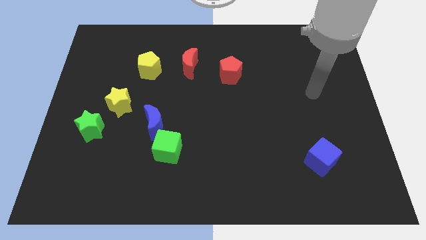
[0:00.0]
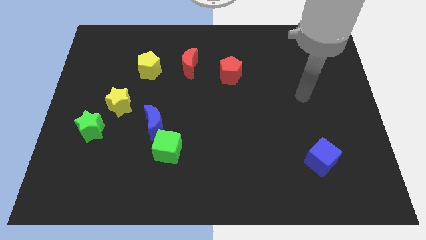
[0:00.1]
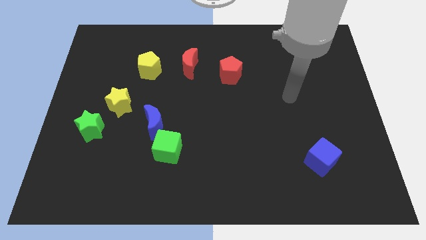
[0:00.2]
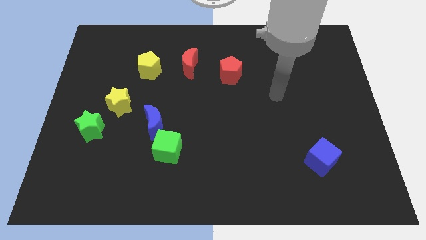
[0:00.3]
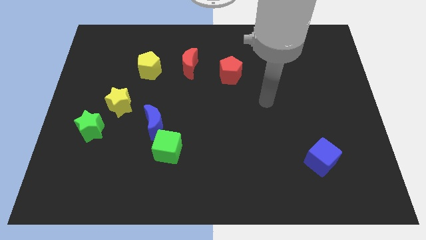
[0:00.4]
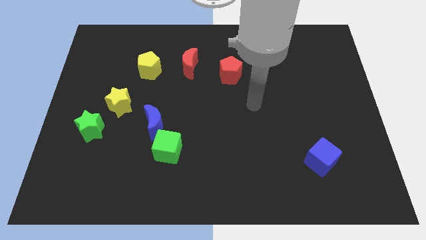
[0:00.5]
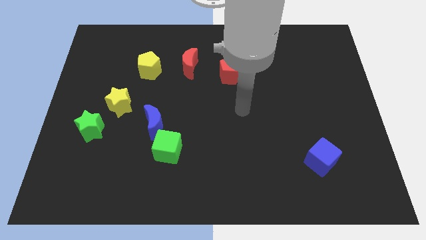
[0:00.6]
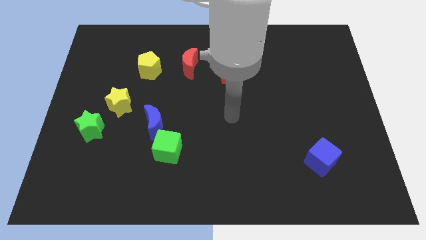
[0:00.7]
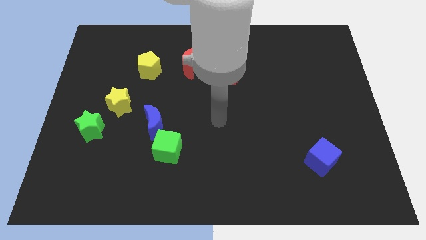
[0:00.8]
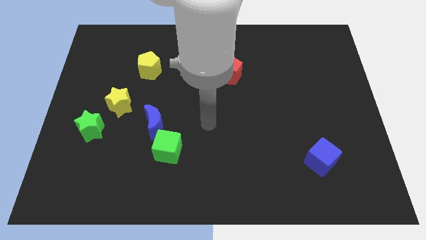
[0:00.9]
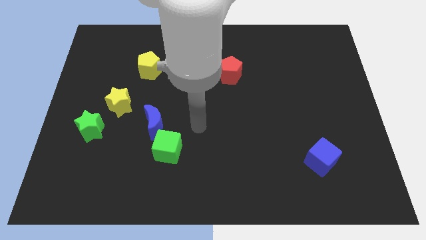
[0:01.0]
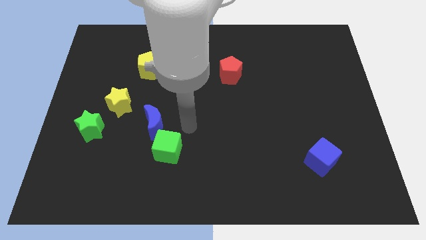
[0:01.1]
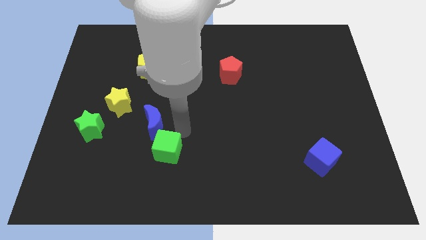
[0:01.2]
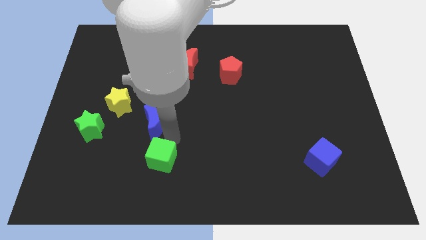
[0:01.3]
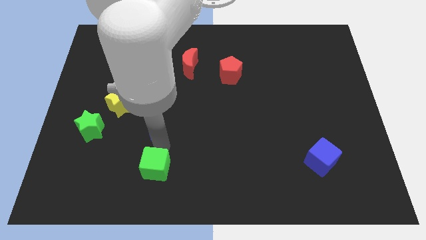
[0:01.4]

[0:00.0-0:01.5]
move the blue moon away from the green cube

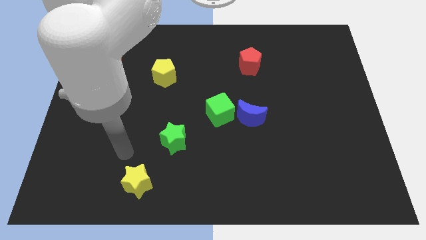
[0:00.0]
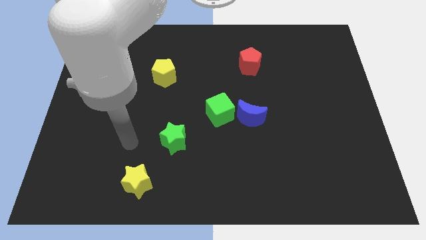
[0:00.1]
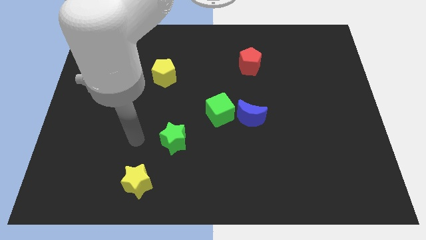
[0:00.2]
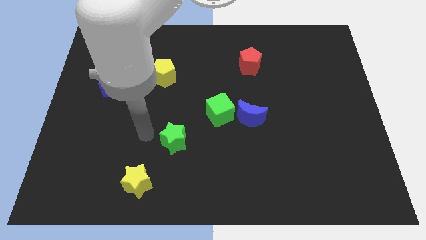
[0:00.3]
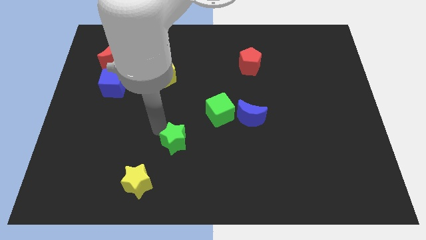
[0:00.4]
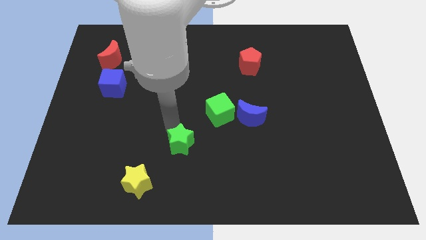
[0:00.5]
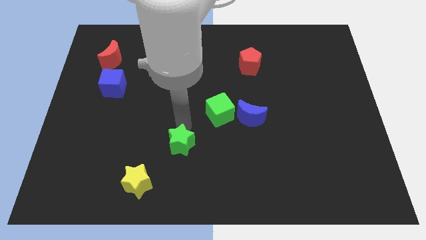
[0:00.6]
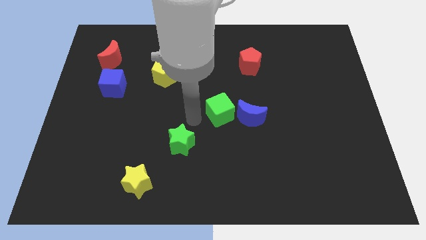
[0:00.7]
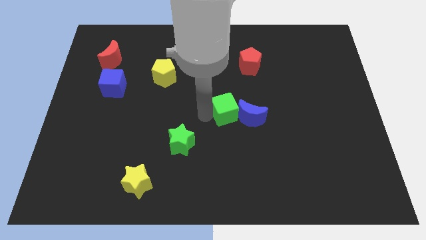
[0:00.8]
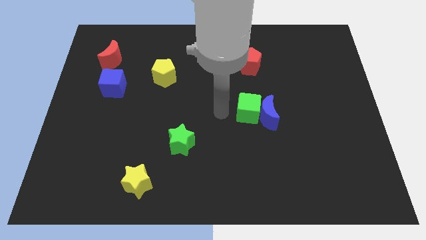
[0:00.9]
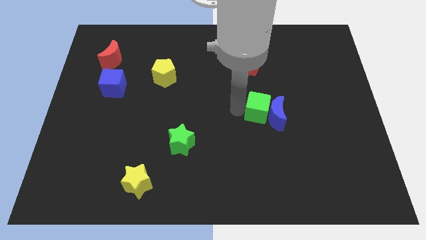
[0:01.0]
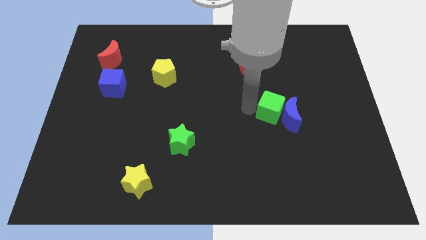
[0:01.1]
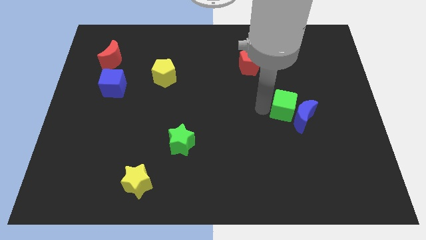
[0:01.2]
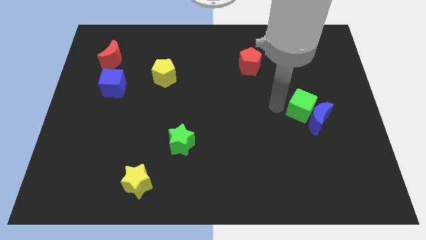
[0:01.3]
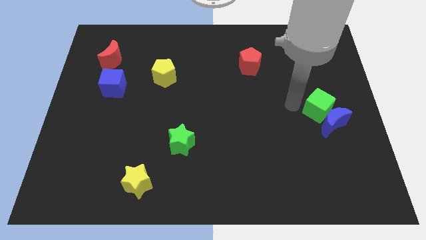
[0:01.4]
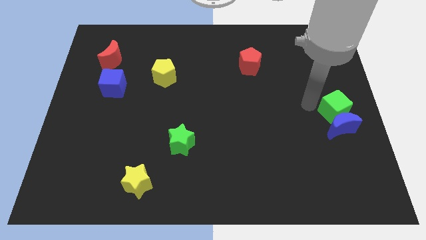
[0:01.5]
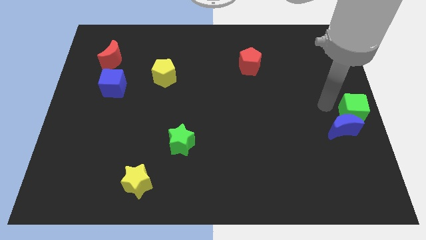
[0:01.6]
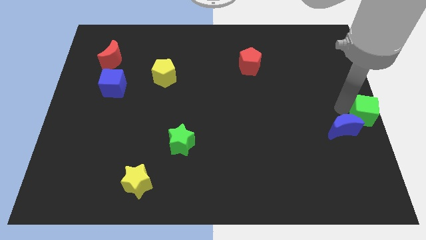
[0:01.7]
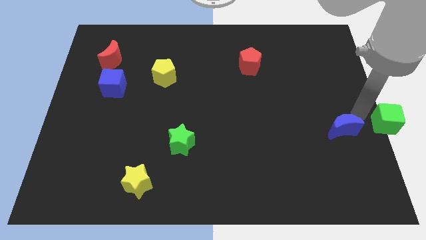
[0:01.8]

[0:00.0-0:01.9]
pull the blue moon apart from the green cube

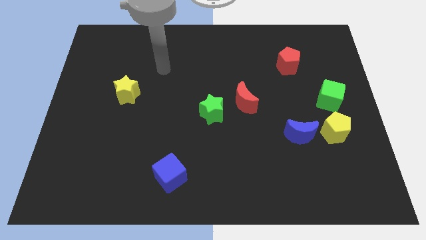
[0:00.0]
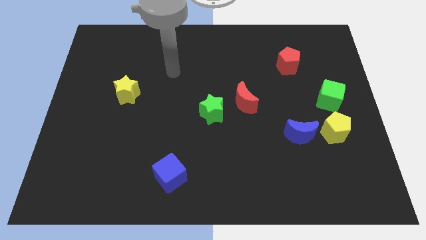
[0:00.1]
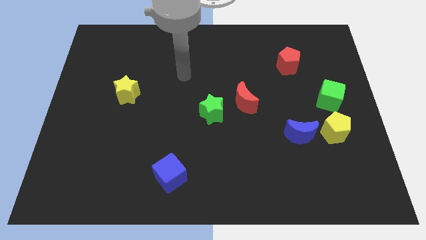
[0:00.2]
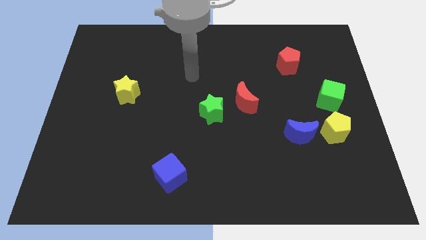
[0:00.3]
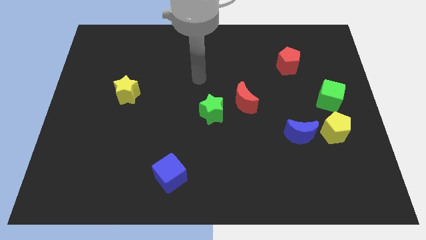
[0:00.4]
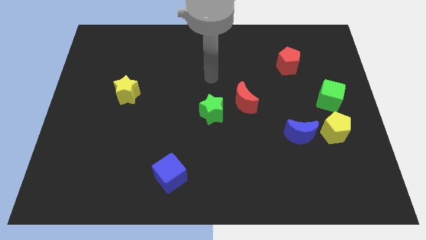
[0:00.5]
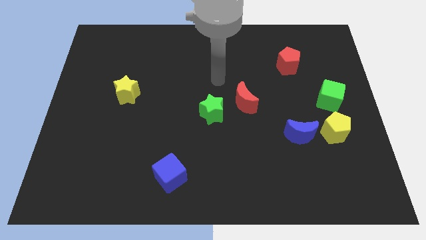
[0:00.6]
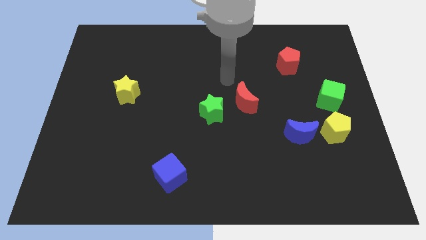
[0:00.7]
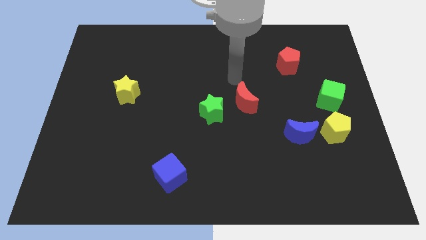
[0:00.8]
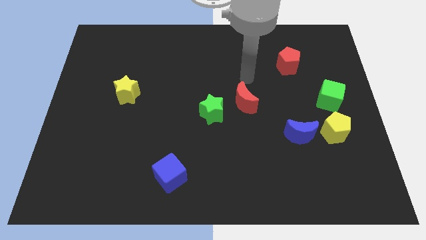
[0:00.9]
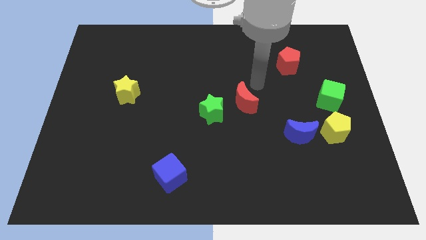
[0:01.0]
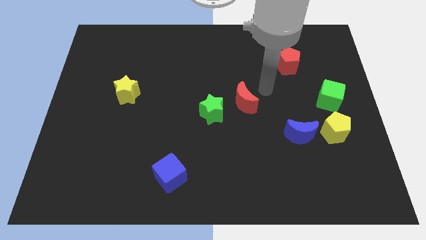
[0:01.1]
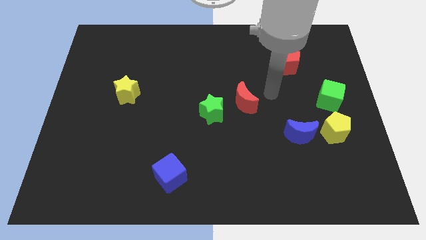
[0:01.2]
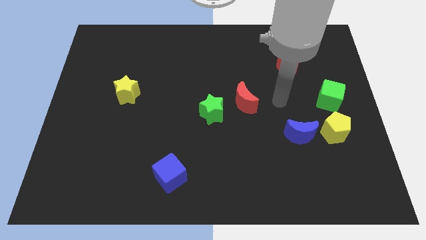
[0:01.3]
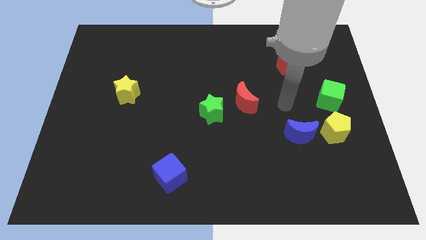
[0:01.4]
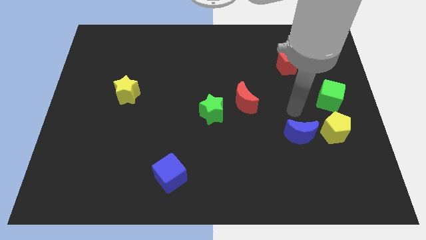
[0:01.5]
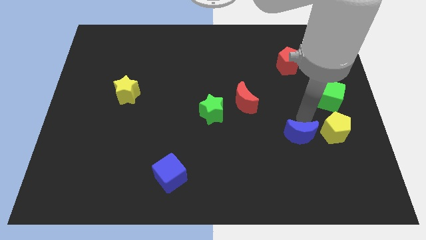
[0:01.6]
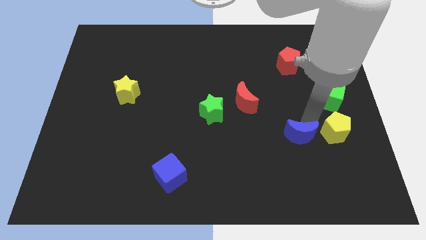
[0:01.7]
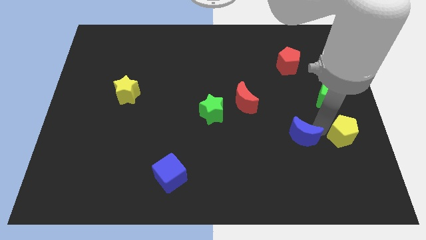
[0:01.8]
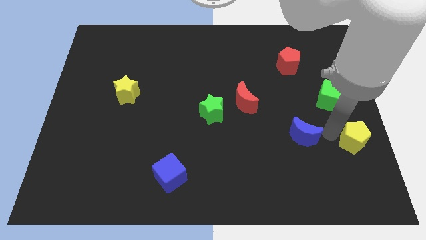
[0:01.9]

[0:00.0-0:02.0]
move the blue moon away from the yellow pentagon

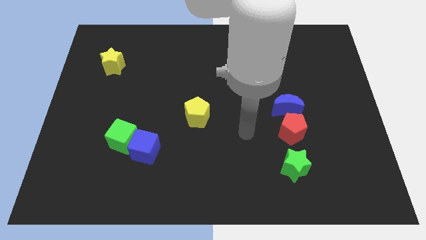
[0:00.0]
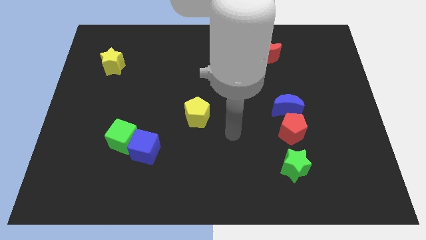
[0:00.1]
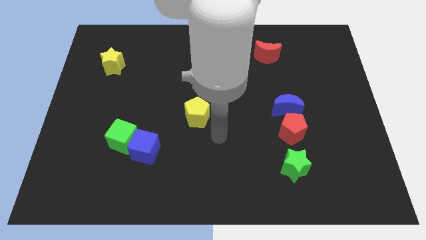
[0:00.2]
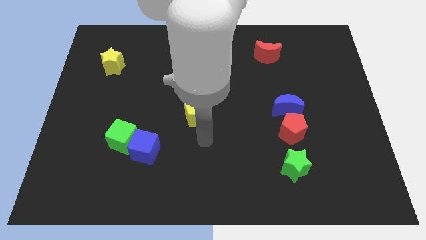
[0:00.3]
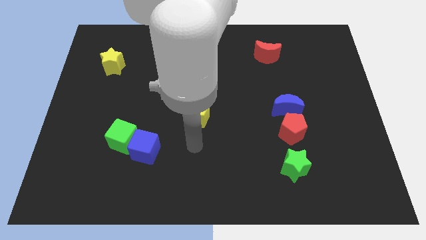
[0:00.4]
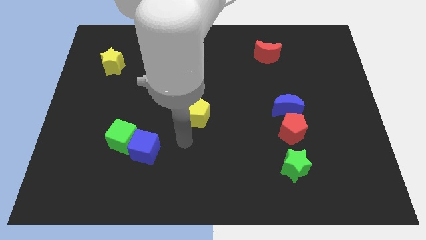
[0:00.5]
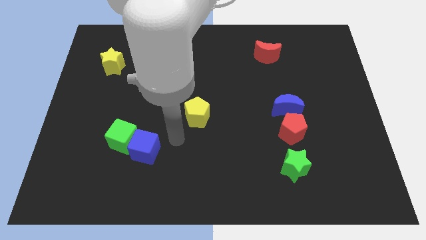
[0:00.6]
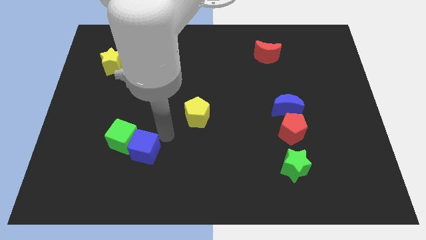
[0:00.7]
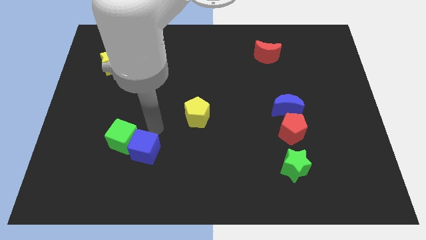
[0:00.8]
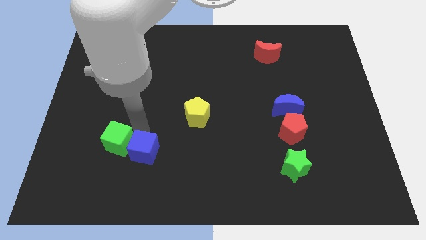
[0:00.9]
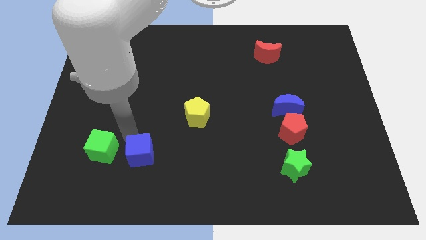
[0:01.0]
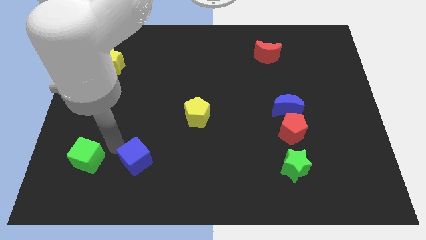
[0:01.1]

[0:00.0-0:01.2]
move the blue cube away from the green cube

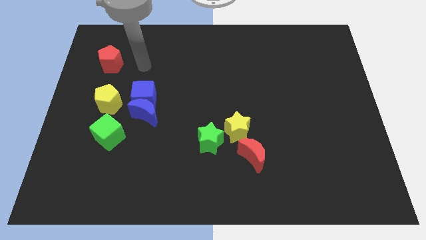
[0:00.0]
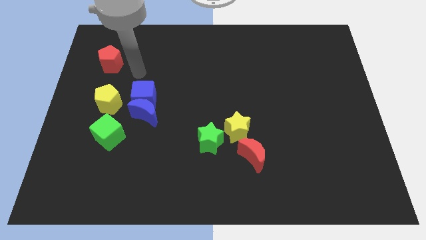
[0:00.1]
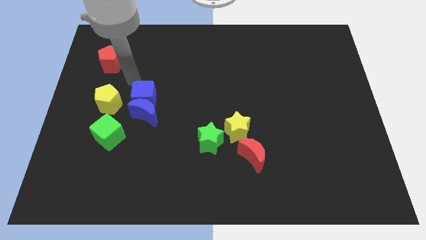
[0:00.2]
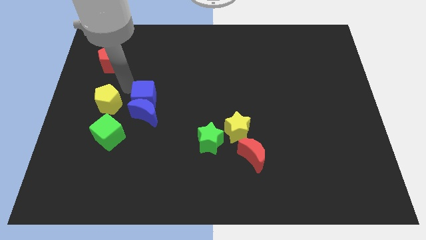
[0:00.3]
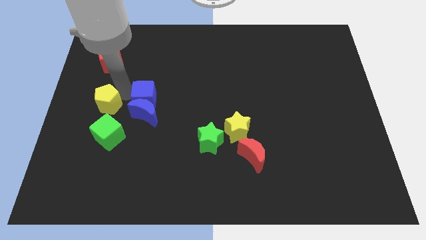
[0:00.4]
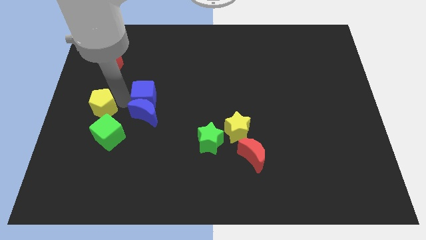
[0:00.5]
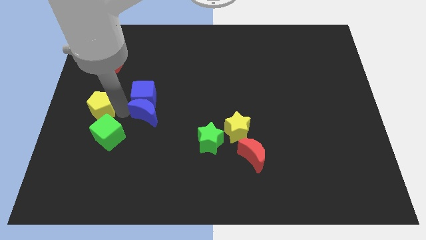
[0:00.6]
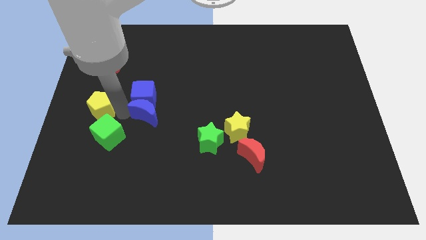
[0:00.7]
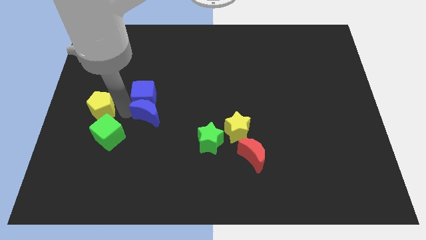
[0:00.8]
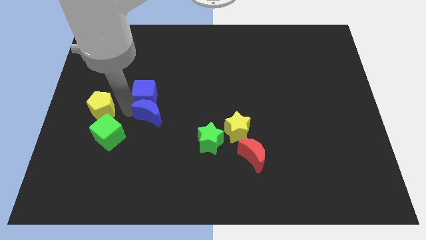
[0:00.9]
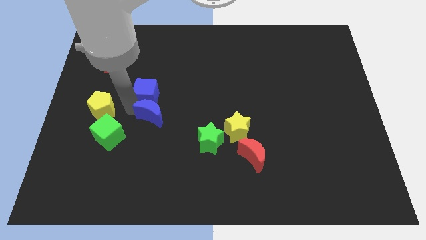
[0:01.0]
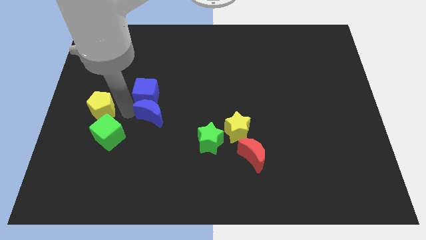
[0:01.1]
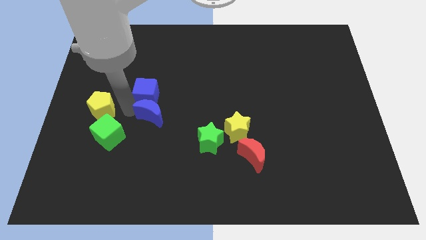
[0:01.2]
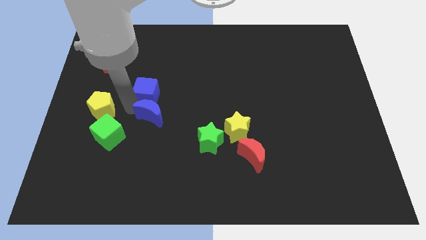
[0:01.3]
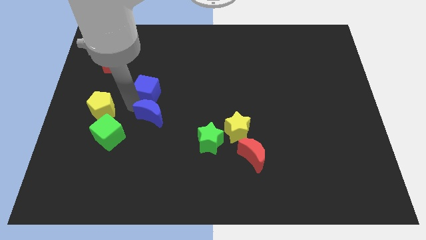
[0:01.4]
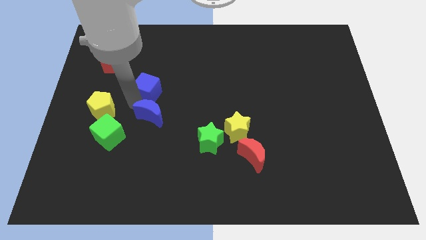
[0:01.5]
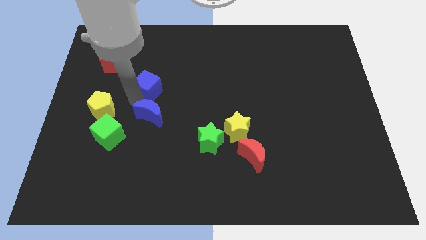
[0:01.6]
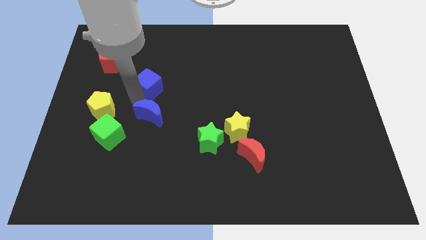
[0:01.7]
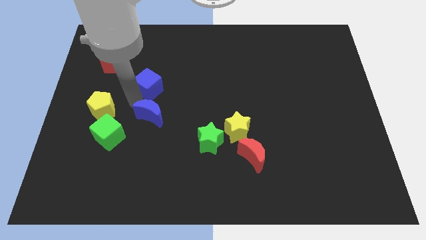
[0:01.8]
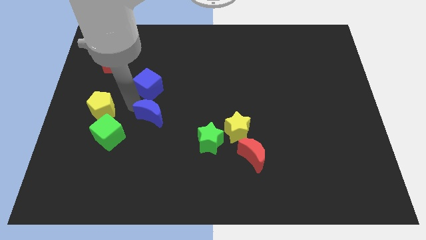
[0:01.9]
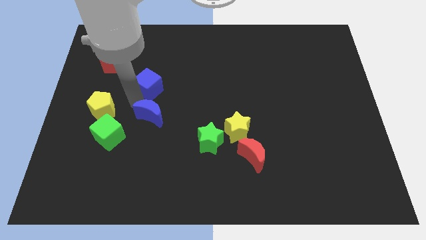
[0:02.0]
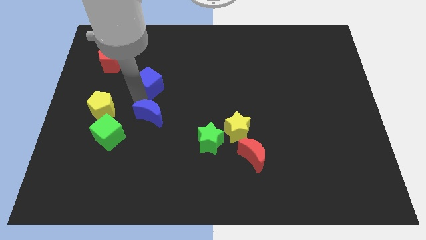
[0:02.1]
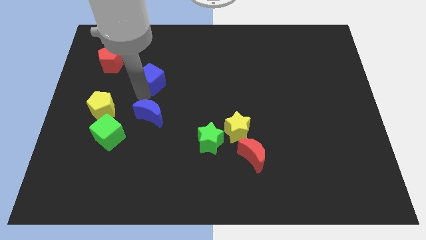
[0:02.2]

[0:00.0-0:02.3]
separate the blue cube from the blue moon and yellow pentagon

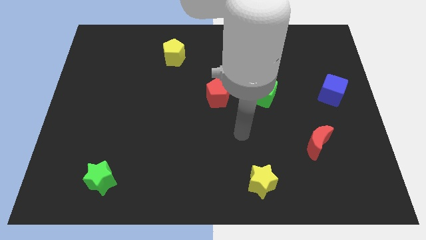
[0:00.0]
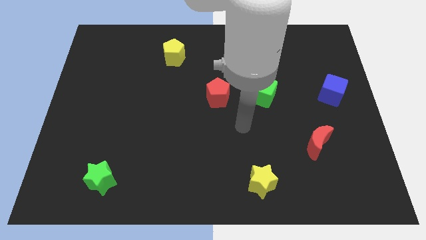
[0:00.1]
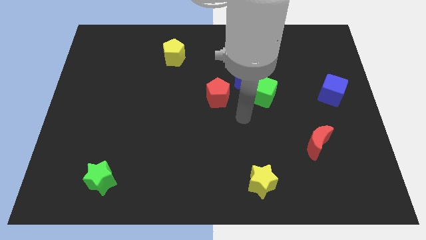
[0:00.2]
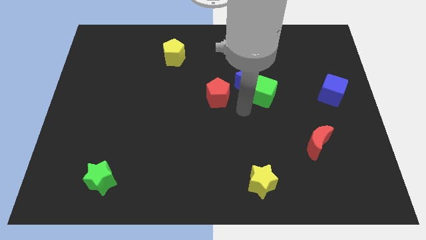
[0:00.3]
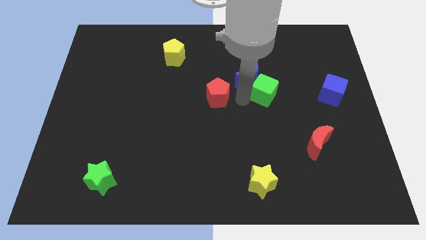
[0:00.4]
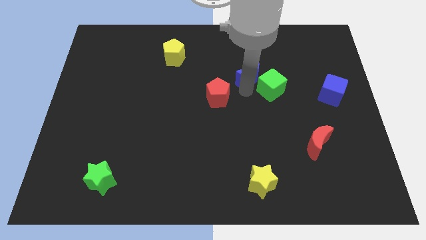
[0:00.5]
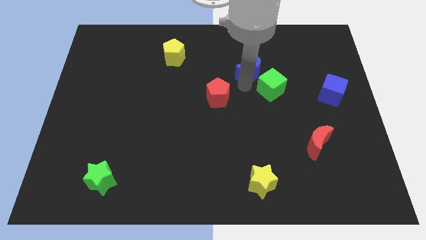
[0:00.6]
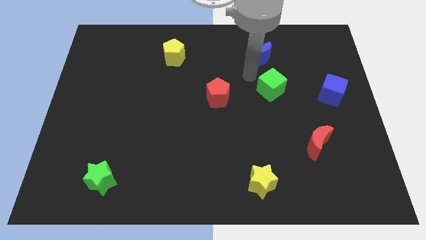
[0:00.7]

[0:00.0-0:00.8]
separate the green cube from the blue moon
